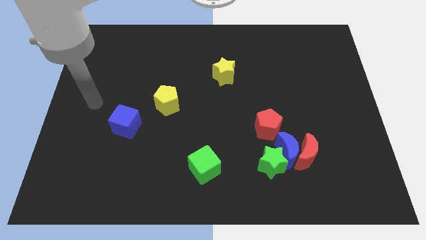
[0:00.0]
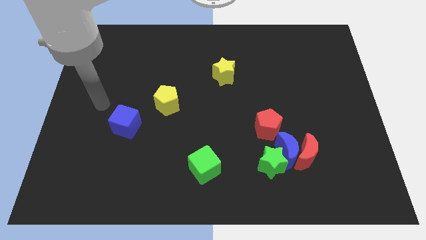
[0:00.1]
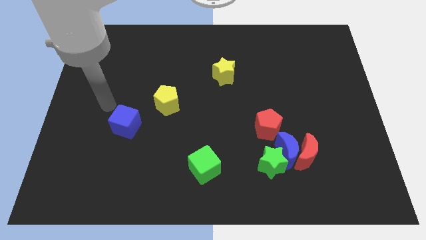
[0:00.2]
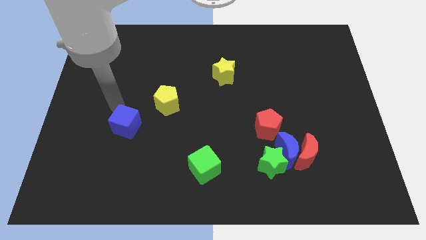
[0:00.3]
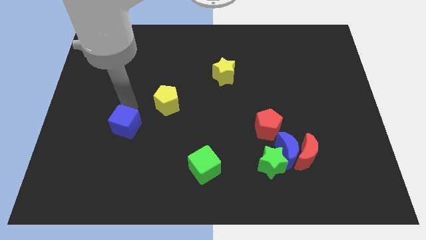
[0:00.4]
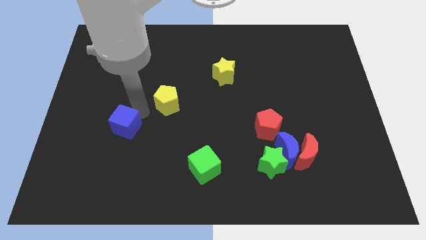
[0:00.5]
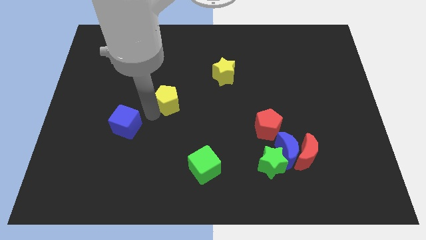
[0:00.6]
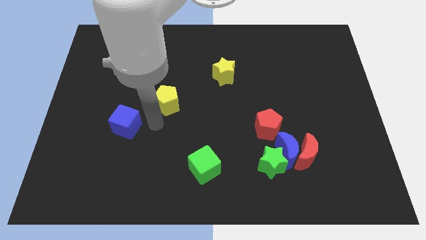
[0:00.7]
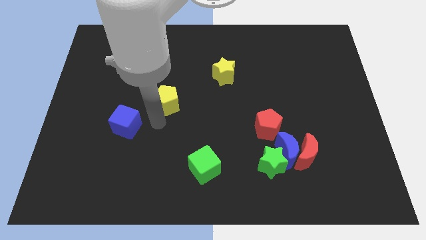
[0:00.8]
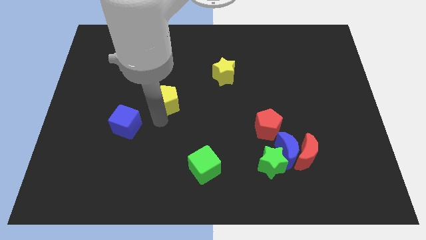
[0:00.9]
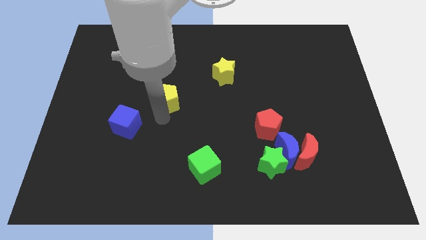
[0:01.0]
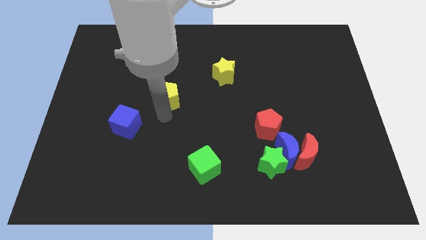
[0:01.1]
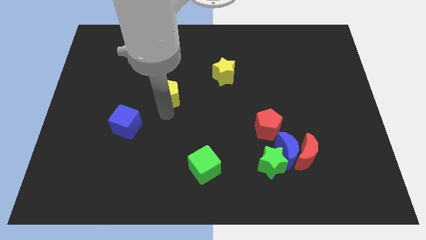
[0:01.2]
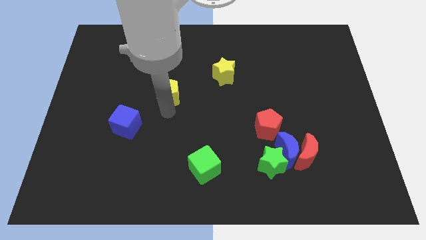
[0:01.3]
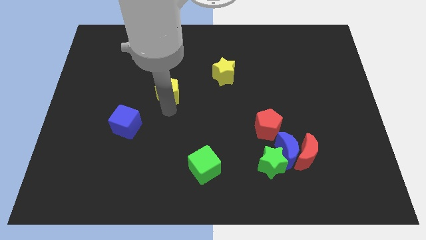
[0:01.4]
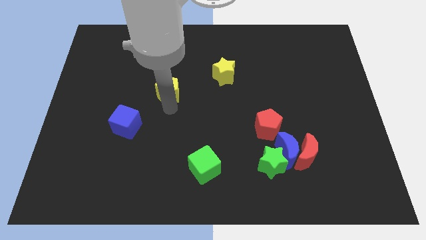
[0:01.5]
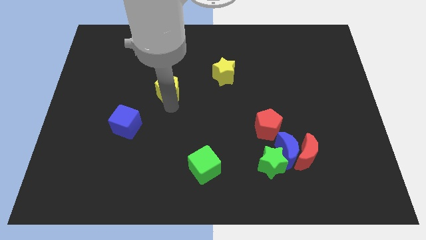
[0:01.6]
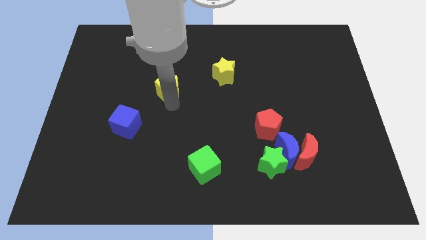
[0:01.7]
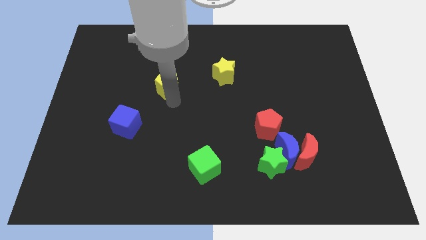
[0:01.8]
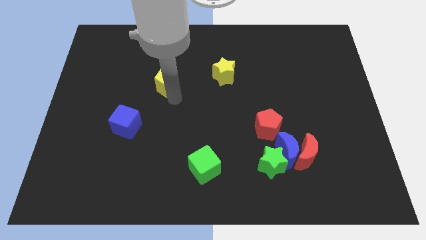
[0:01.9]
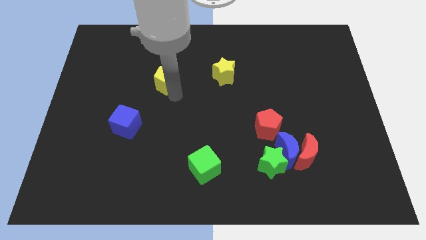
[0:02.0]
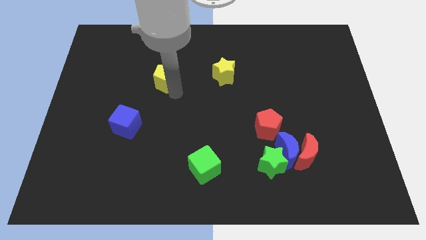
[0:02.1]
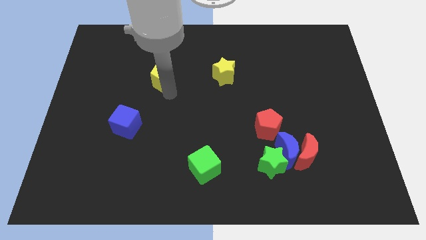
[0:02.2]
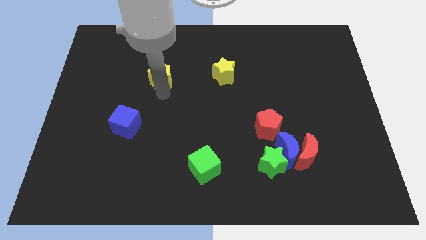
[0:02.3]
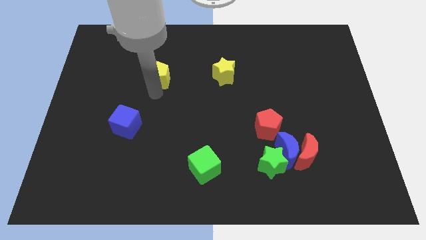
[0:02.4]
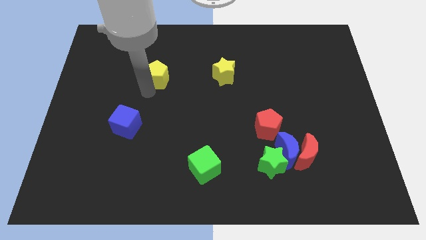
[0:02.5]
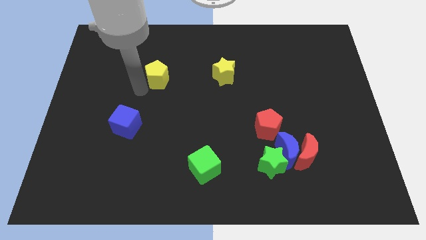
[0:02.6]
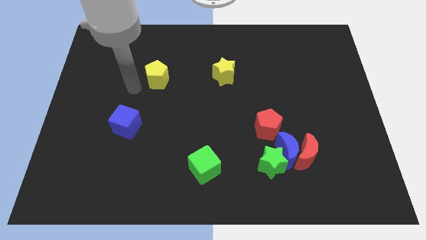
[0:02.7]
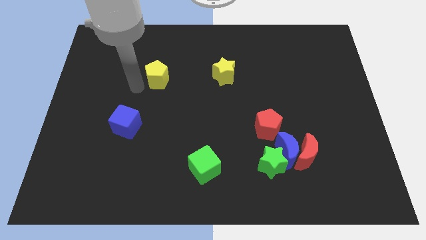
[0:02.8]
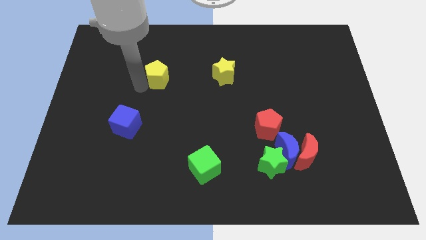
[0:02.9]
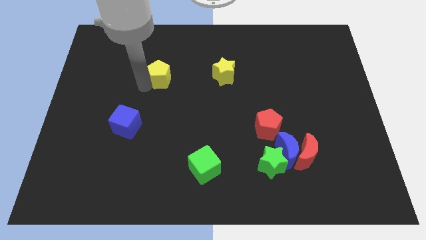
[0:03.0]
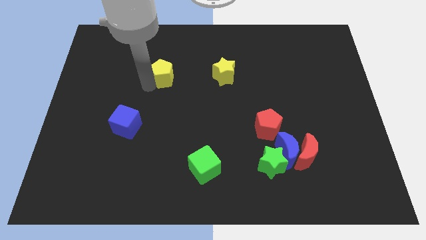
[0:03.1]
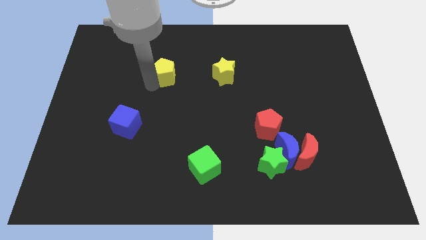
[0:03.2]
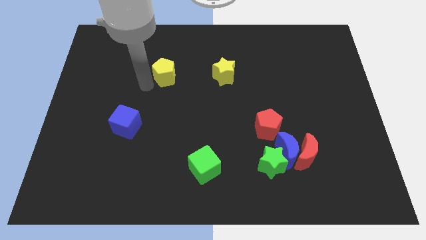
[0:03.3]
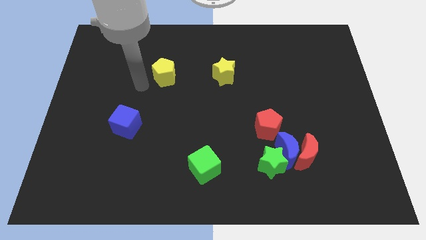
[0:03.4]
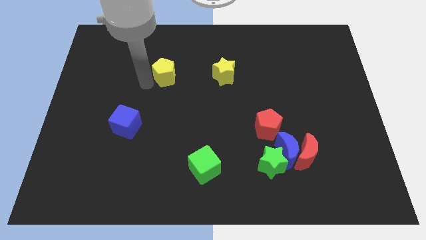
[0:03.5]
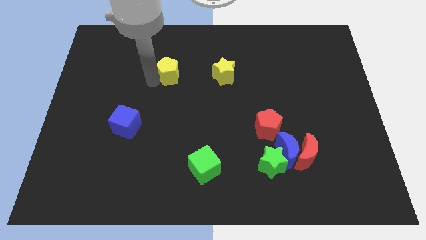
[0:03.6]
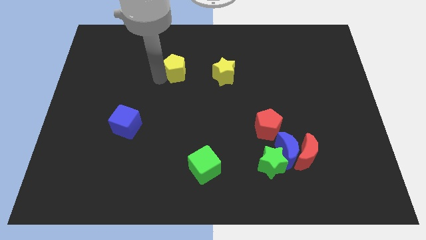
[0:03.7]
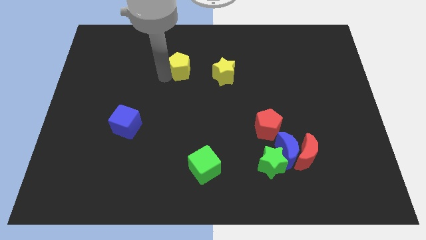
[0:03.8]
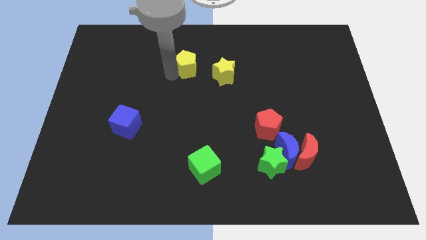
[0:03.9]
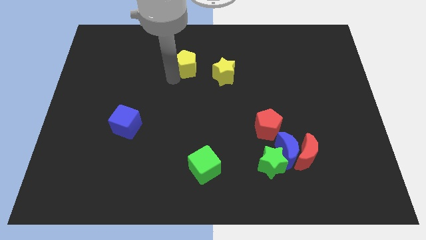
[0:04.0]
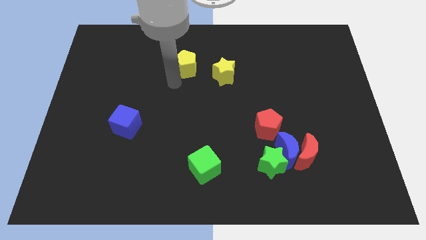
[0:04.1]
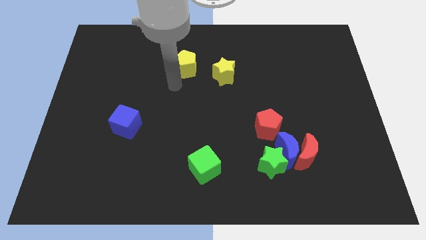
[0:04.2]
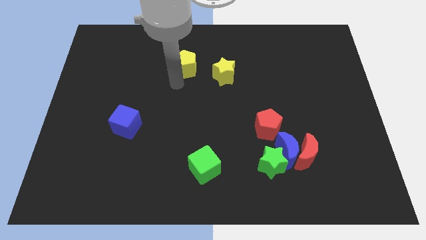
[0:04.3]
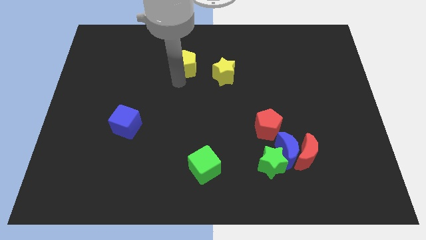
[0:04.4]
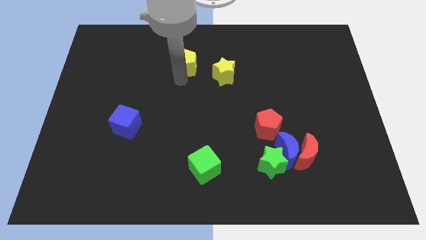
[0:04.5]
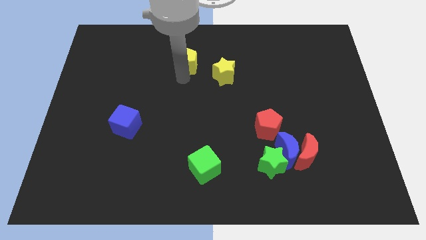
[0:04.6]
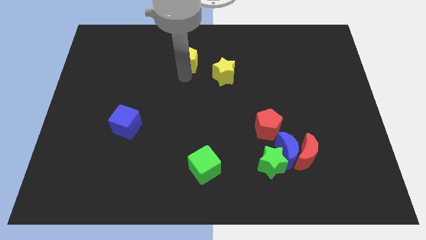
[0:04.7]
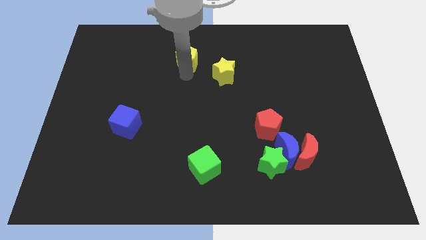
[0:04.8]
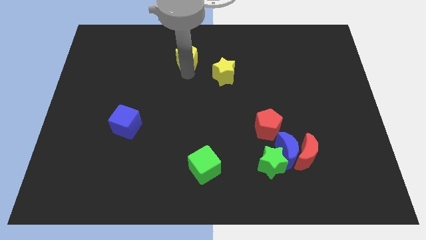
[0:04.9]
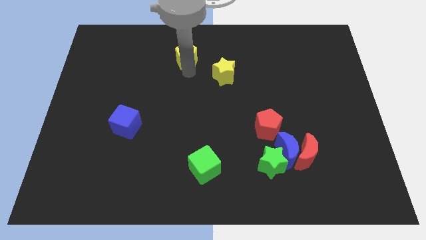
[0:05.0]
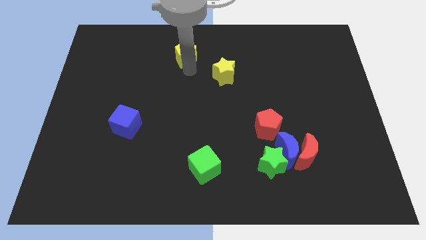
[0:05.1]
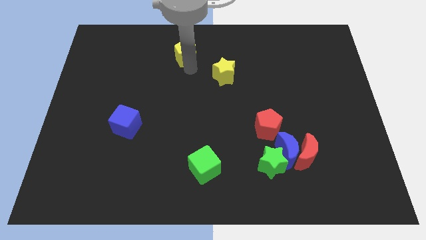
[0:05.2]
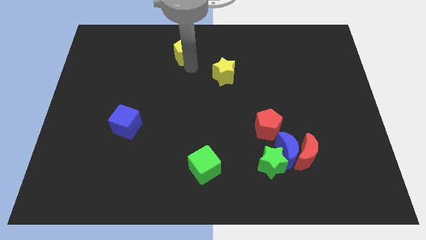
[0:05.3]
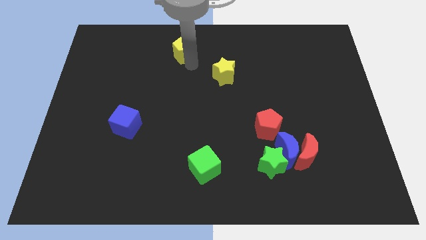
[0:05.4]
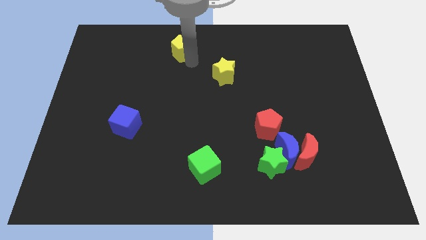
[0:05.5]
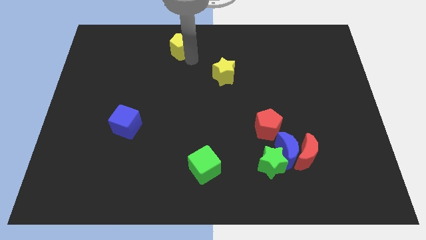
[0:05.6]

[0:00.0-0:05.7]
slide the yellow pentagon to the towards your base

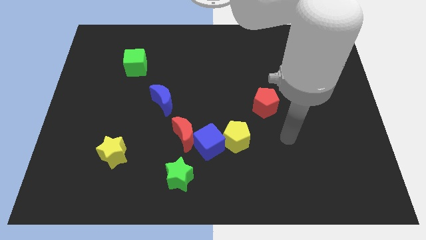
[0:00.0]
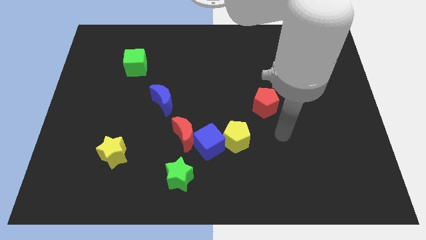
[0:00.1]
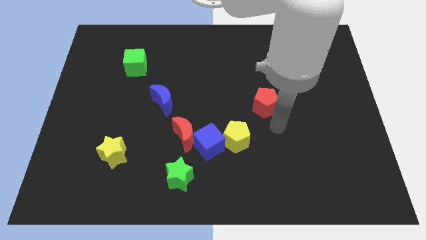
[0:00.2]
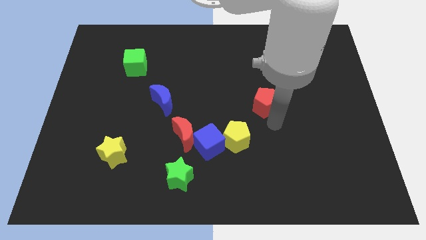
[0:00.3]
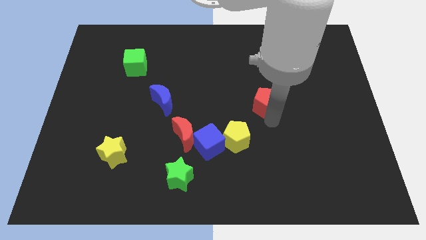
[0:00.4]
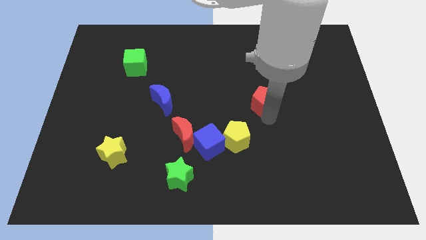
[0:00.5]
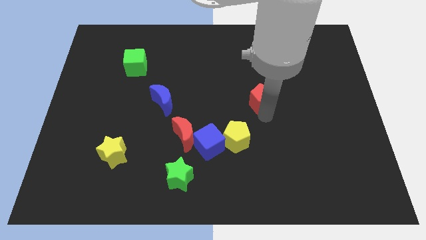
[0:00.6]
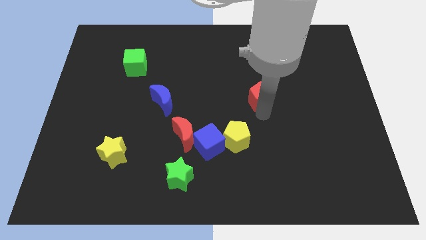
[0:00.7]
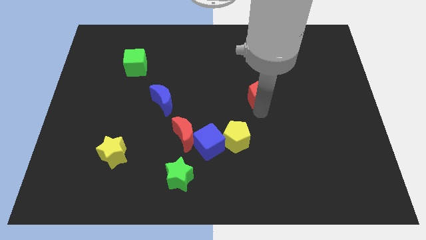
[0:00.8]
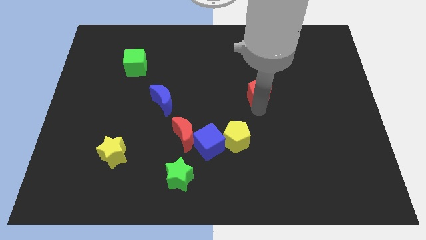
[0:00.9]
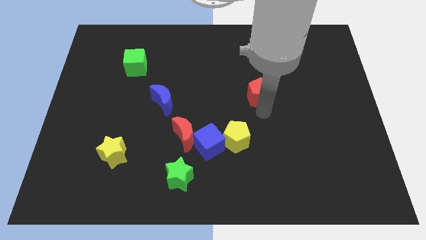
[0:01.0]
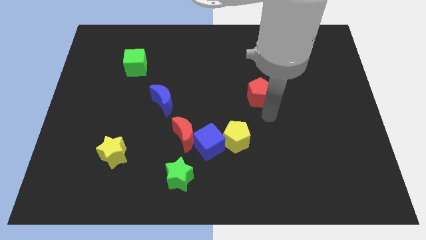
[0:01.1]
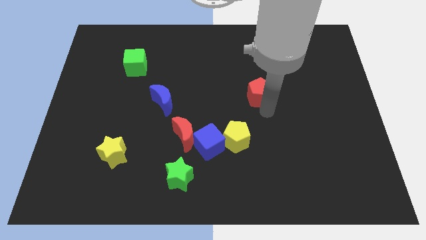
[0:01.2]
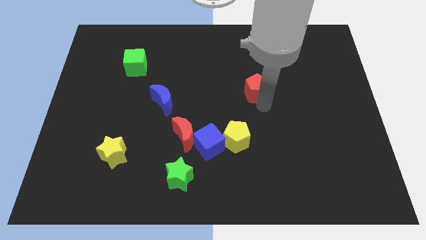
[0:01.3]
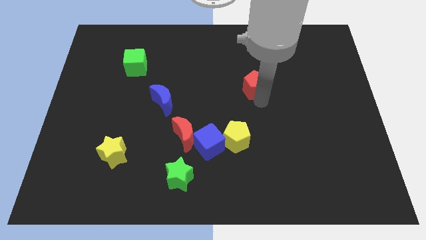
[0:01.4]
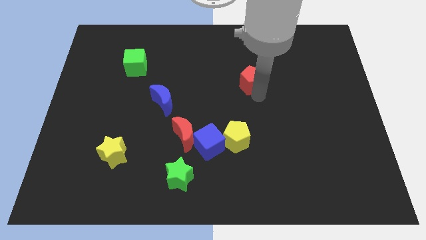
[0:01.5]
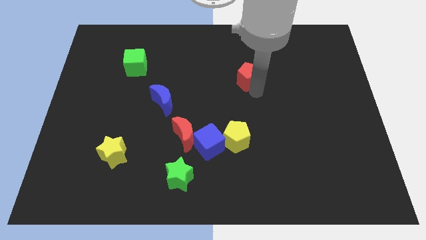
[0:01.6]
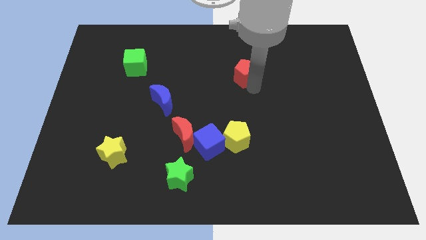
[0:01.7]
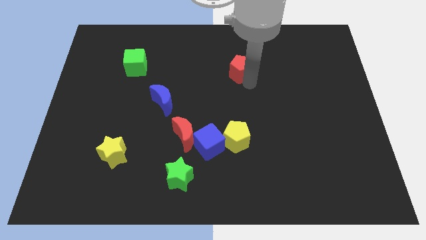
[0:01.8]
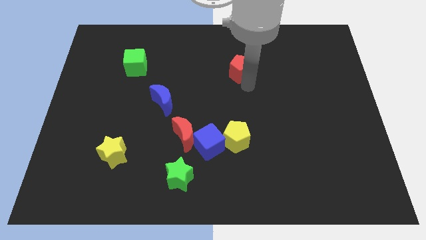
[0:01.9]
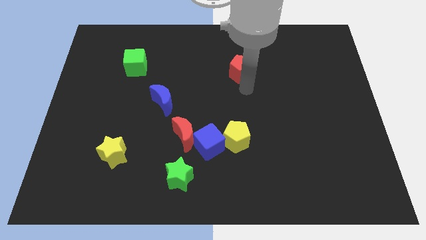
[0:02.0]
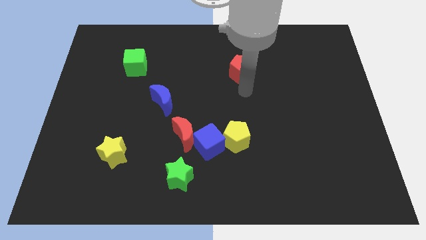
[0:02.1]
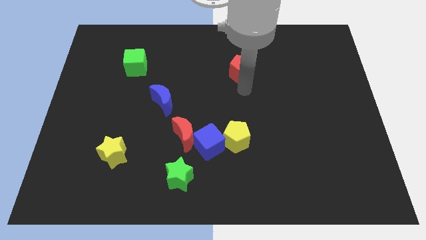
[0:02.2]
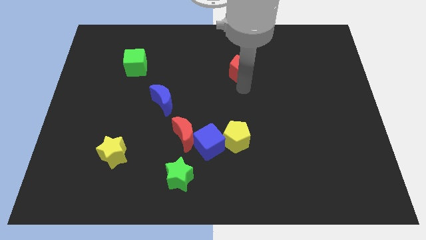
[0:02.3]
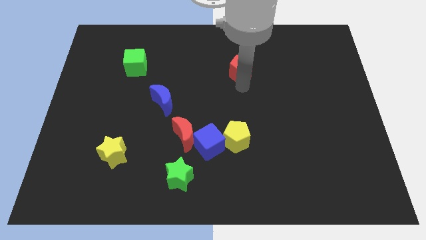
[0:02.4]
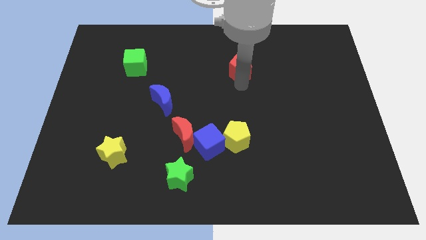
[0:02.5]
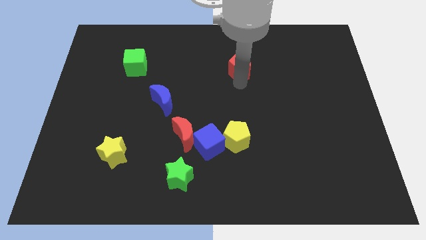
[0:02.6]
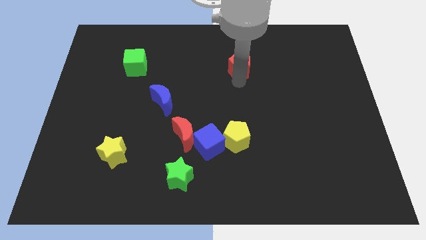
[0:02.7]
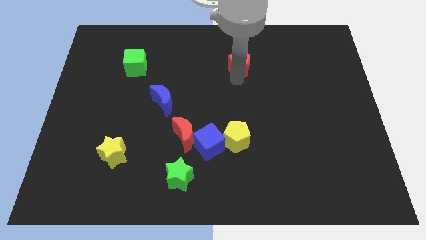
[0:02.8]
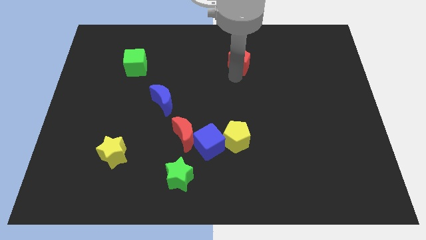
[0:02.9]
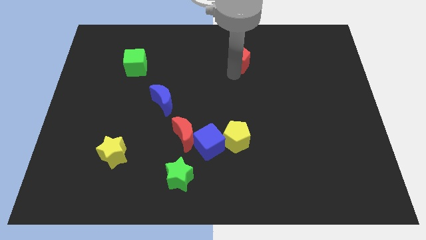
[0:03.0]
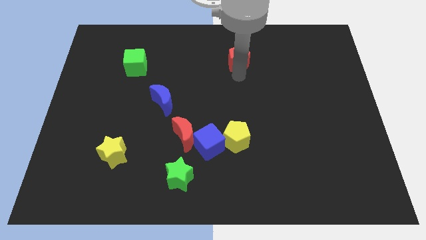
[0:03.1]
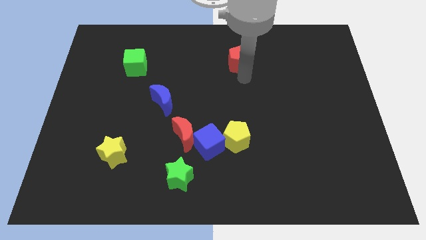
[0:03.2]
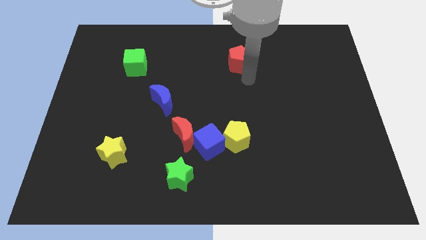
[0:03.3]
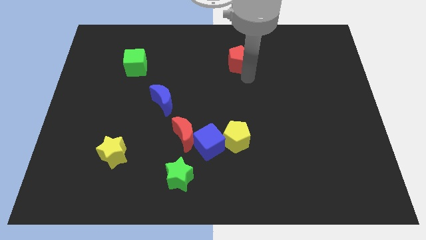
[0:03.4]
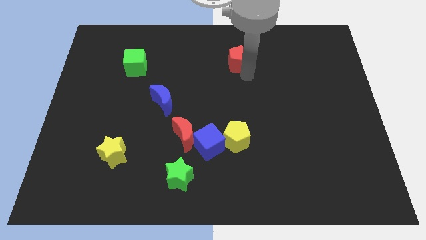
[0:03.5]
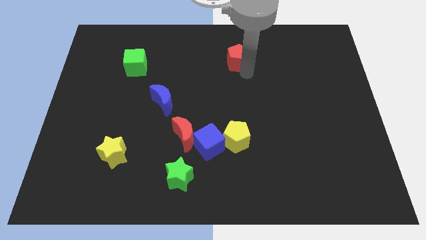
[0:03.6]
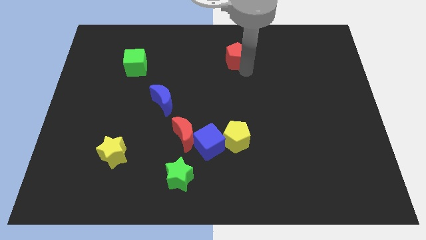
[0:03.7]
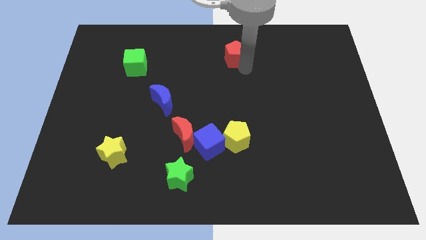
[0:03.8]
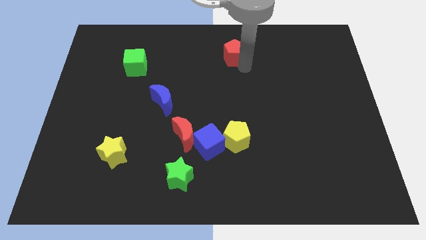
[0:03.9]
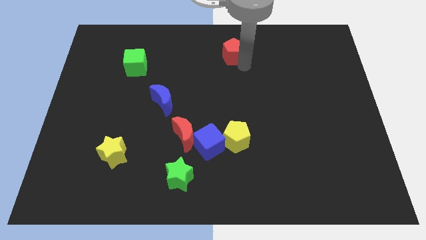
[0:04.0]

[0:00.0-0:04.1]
push the red pentagon to the top
